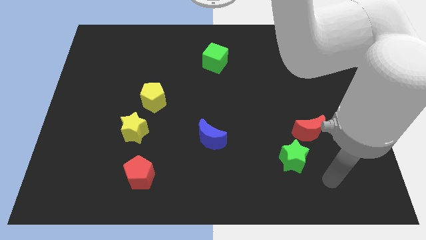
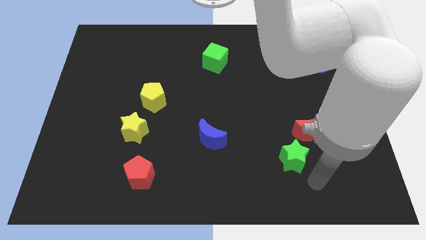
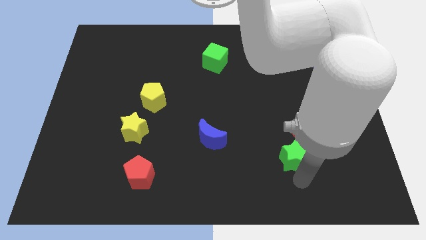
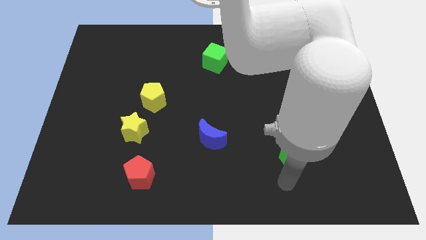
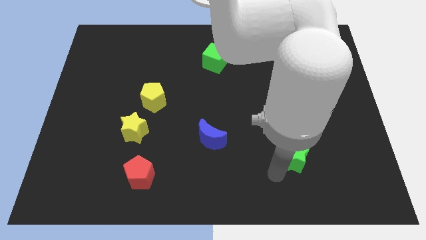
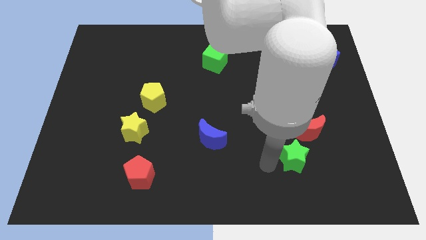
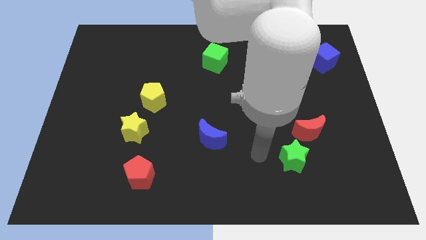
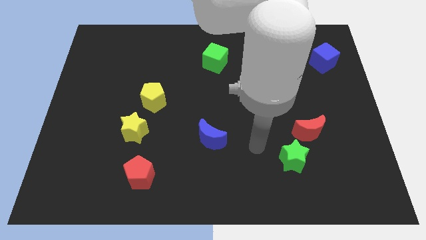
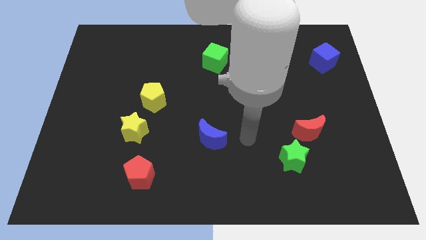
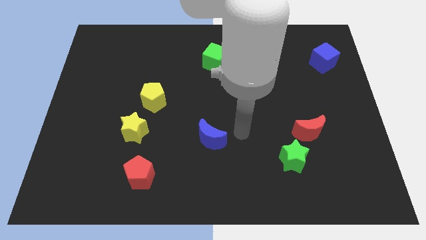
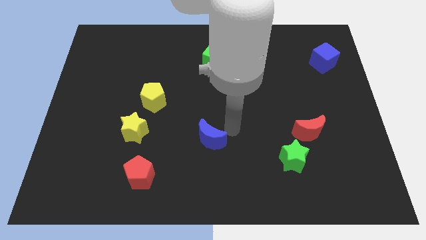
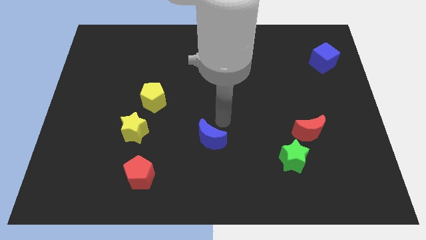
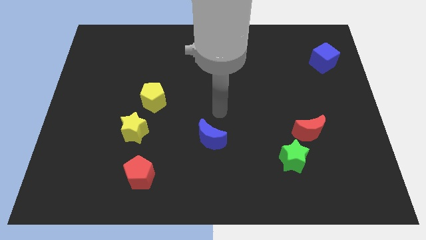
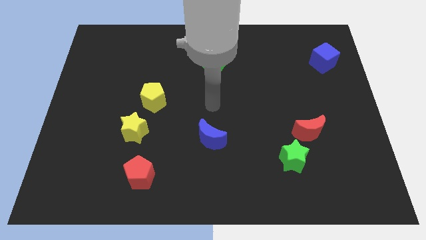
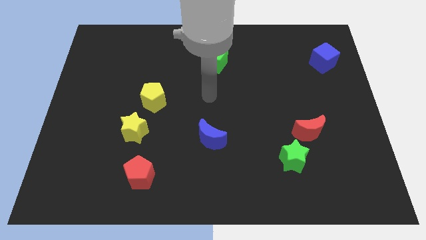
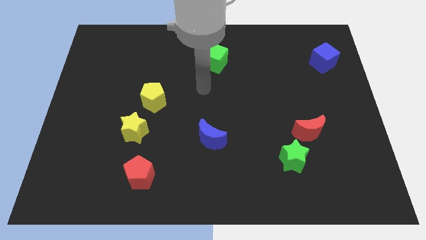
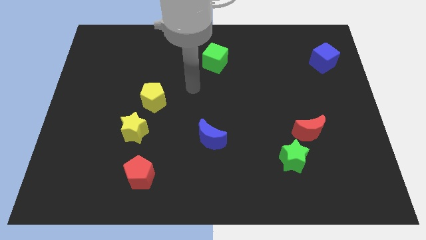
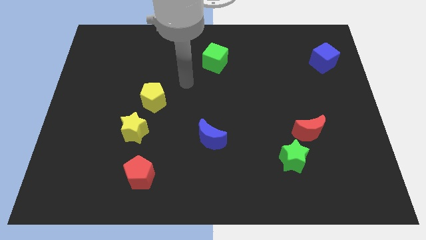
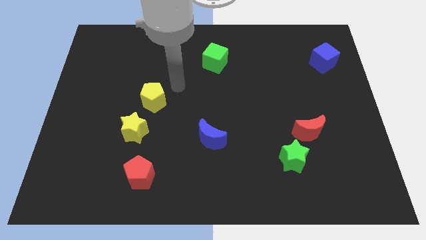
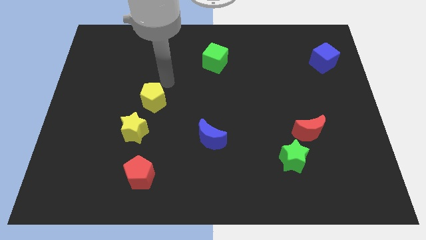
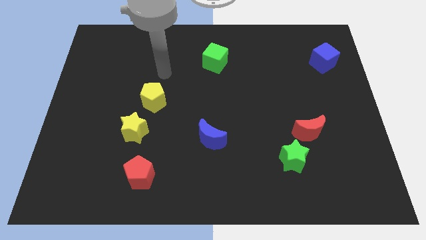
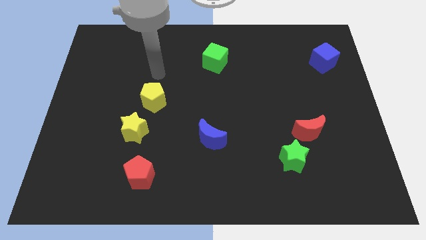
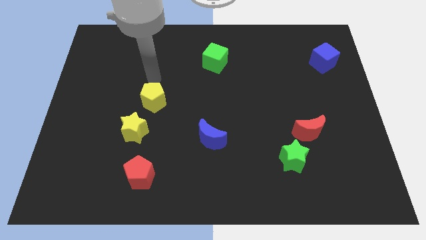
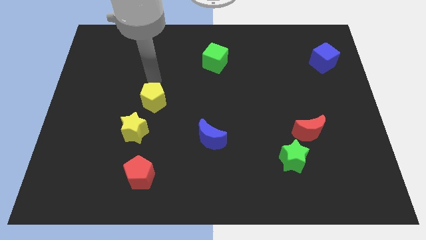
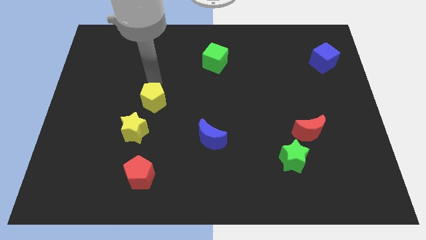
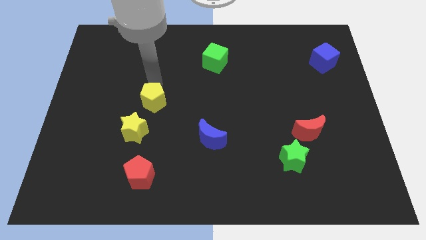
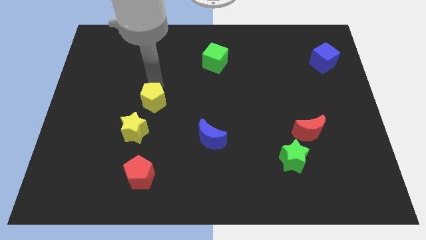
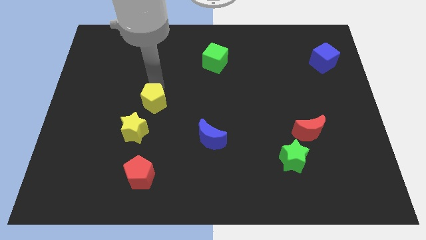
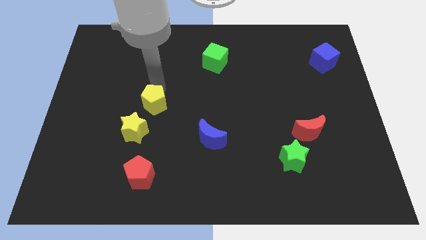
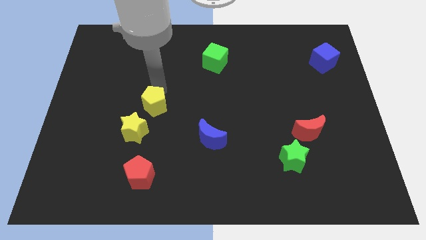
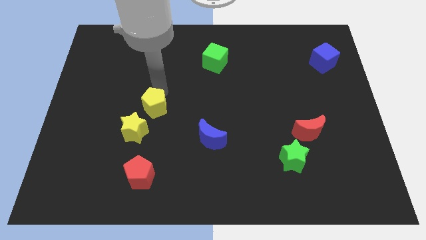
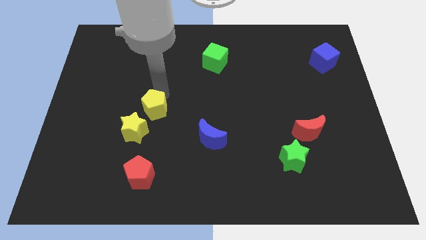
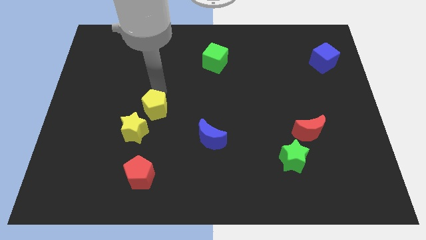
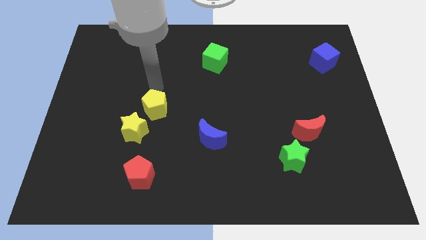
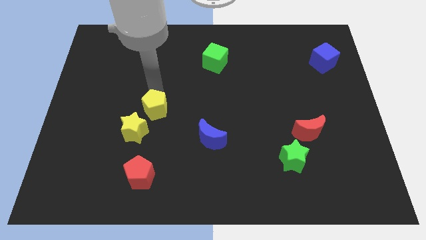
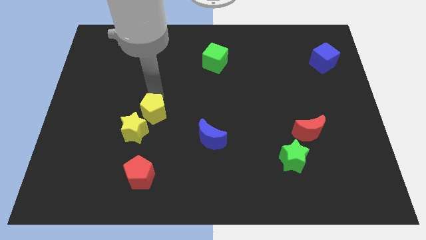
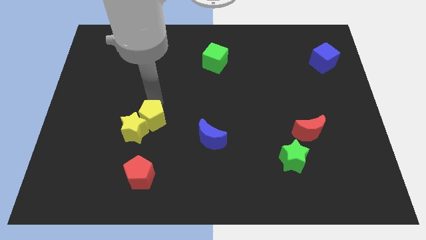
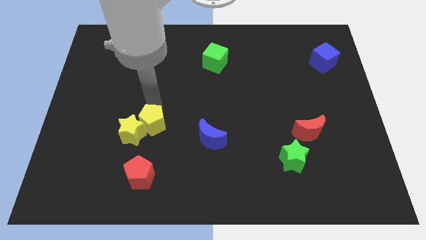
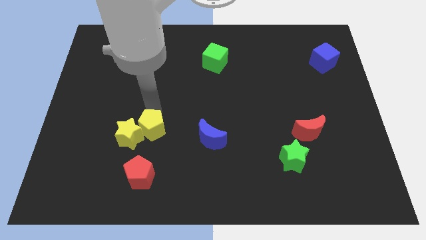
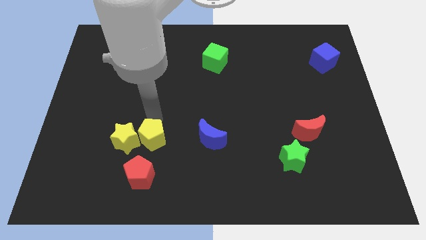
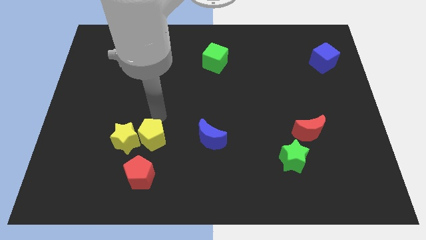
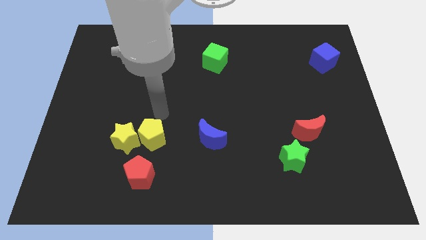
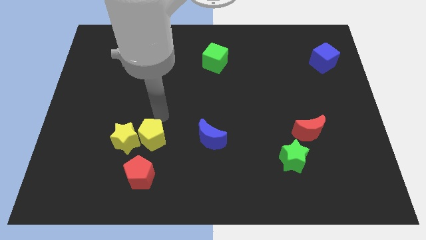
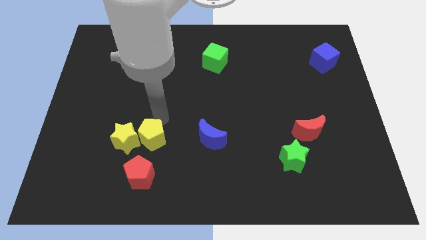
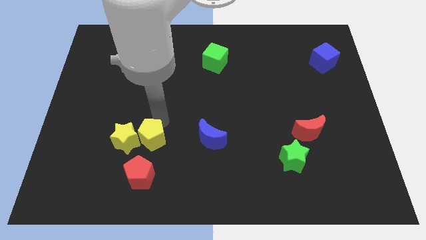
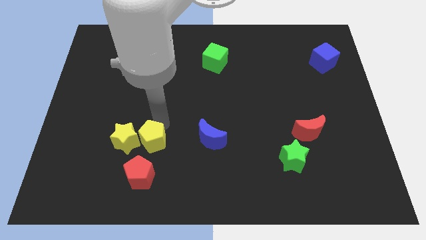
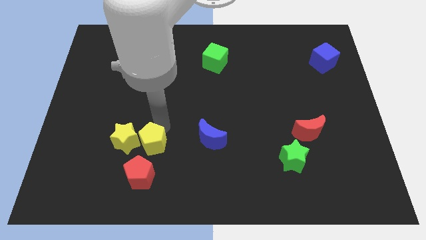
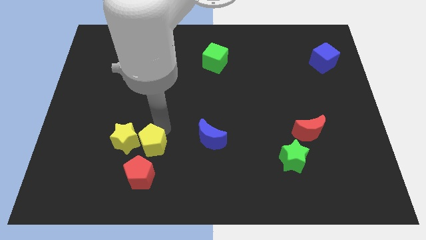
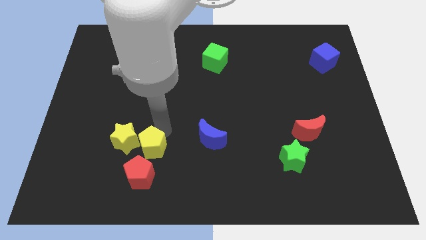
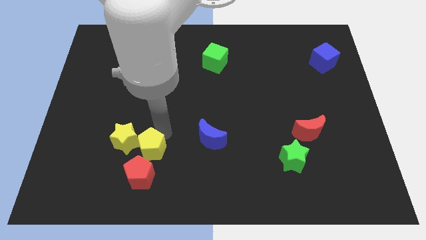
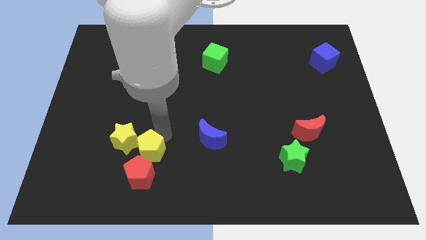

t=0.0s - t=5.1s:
move the yellow pentagon next to the red pentagon

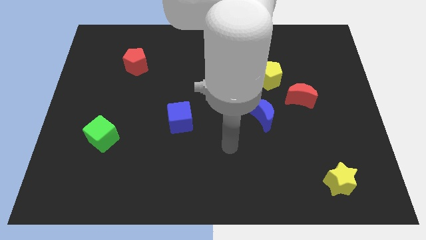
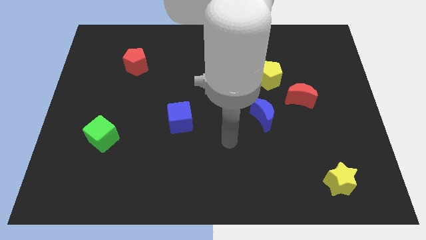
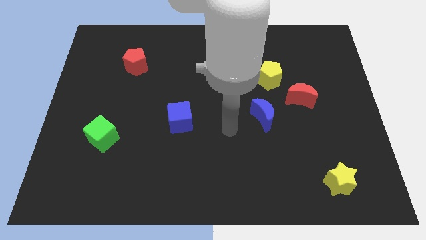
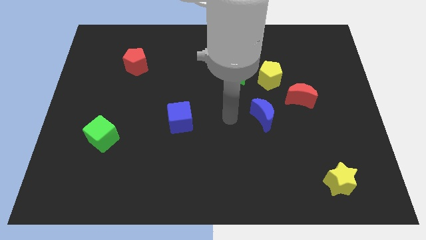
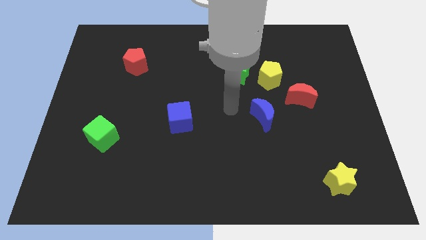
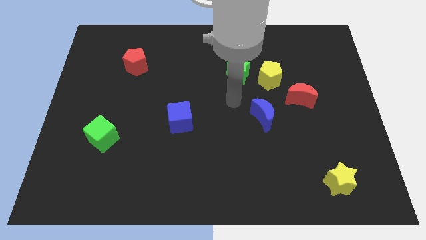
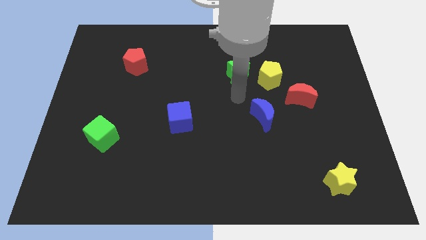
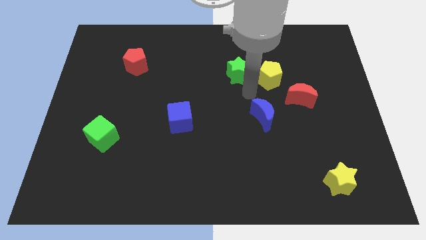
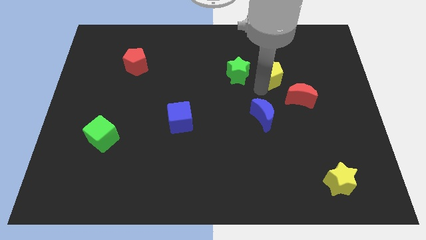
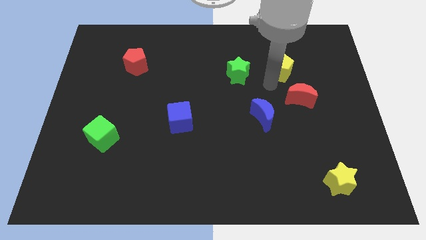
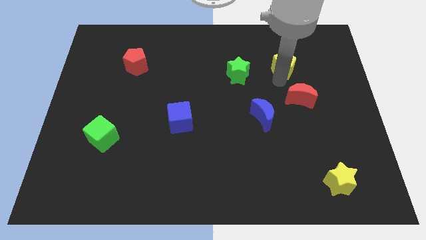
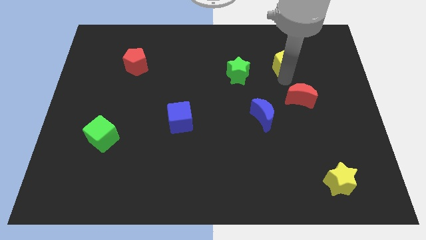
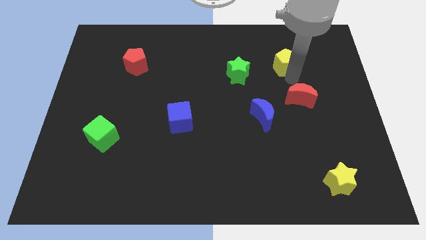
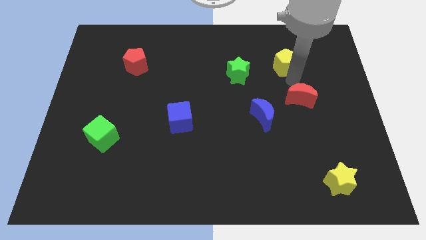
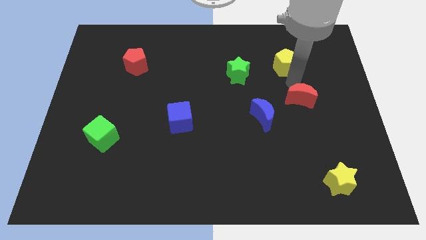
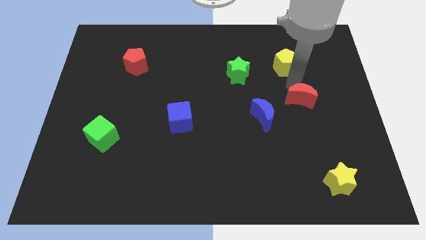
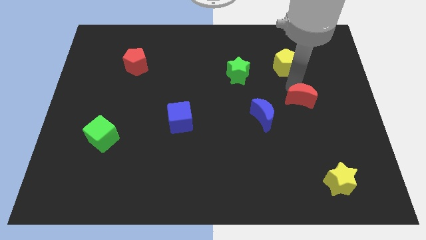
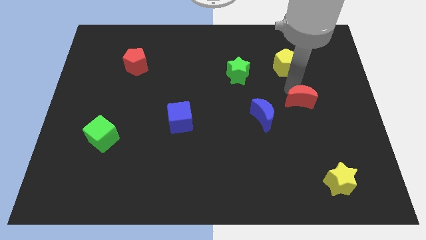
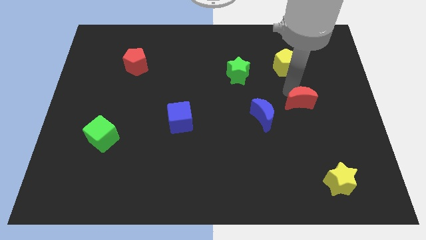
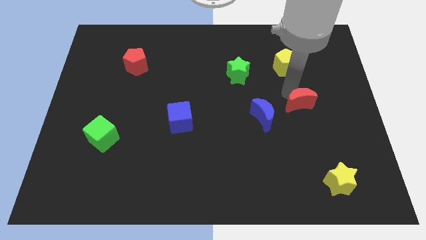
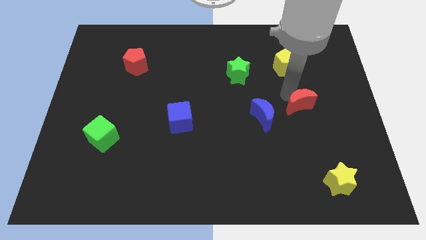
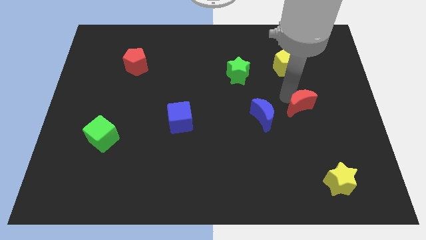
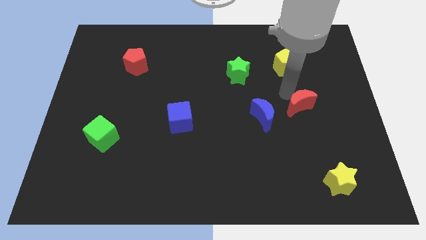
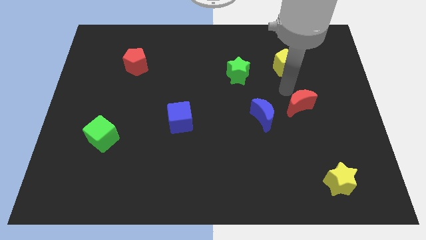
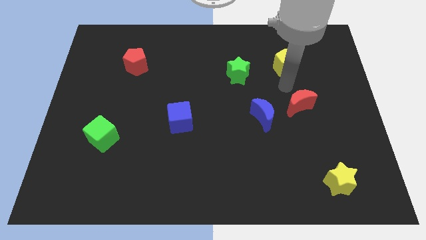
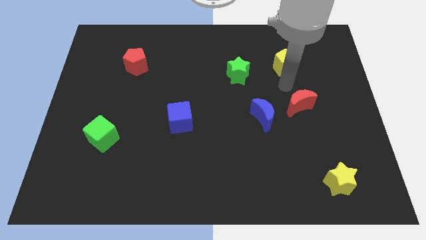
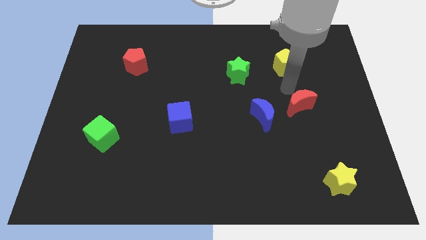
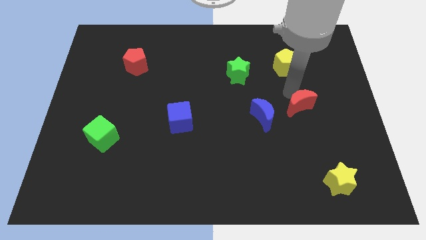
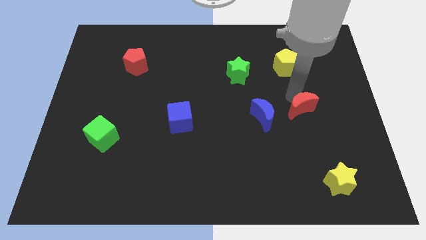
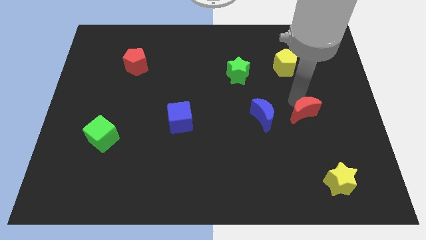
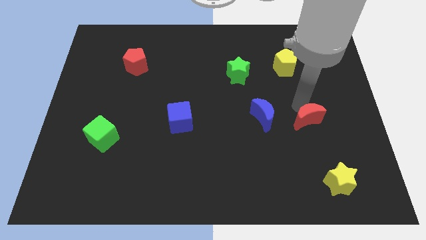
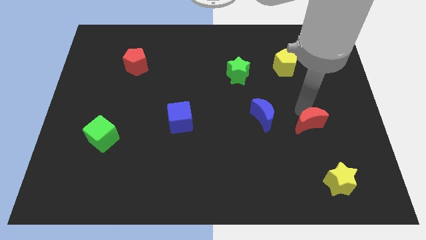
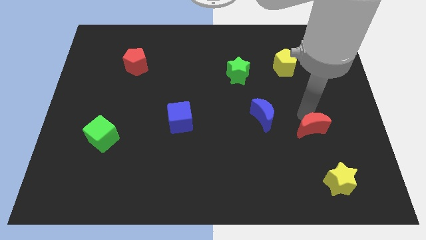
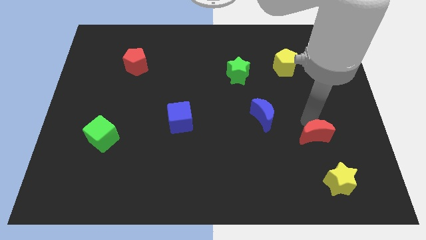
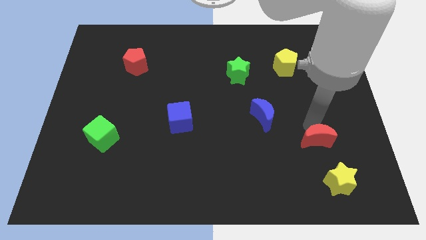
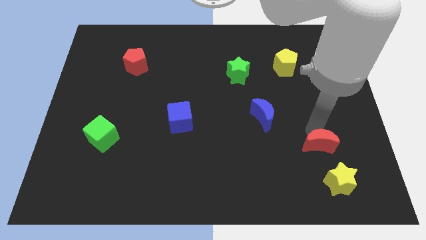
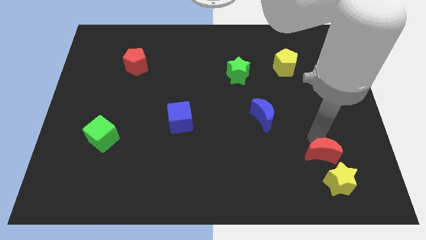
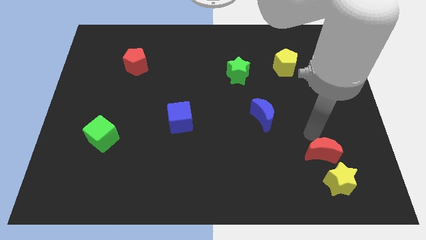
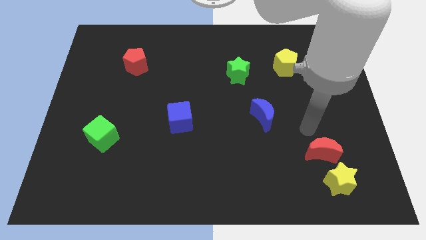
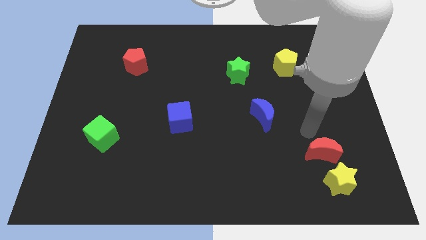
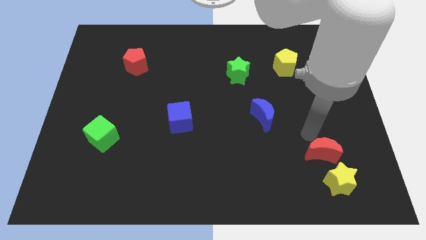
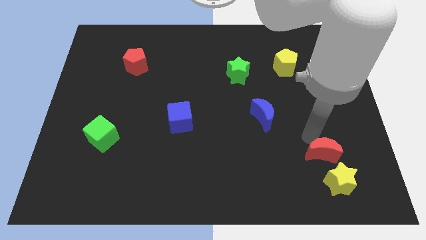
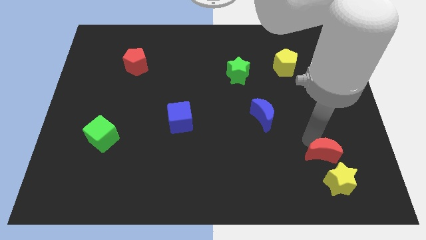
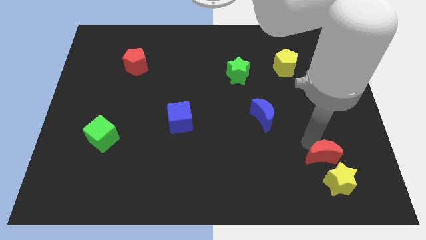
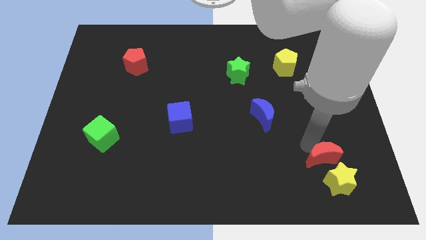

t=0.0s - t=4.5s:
slide the red moon towards the yellow star
